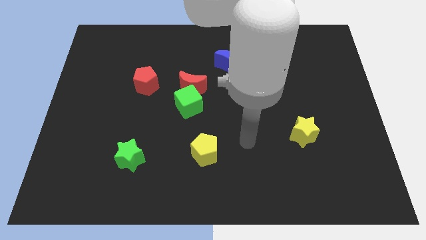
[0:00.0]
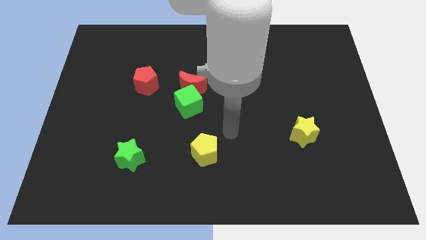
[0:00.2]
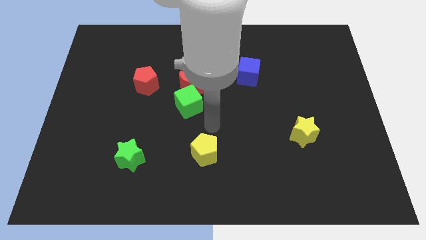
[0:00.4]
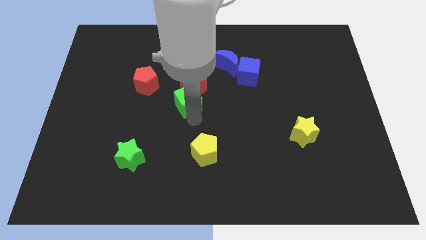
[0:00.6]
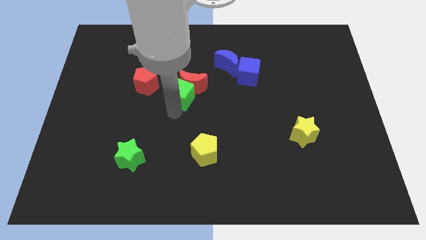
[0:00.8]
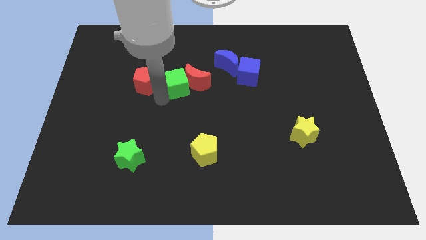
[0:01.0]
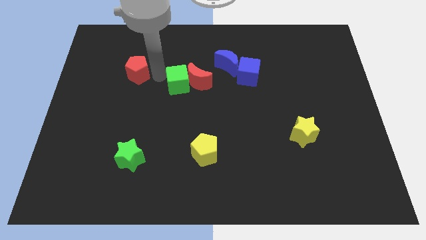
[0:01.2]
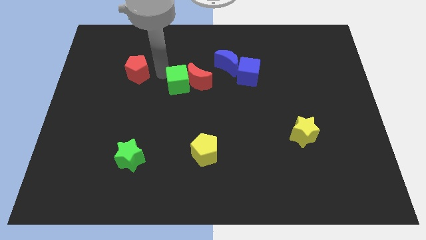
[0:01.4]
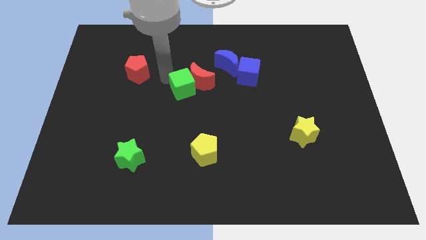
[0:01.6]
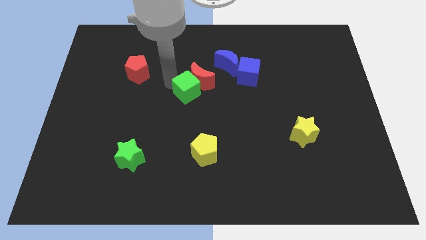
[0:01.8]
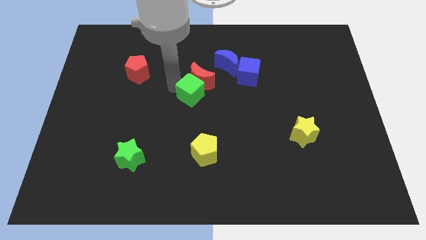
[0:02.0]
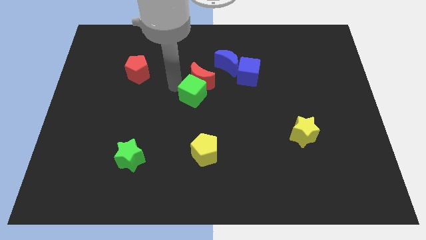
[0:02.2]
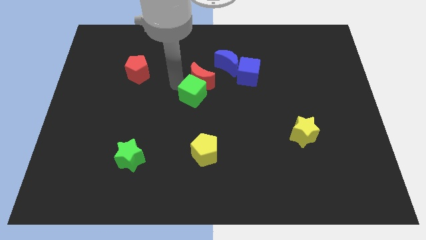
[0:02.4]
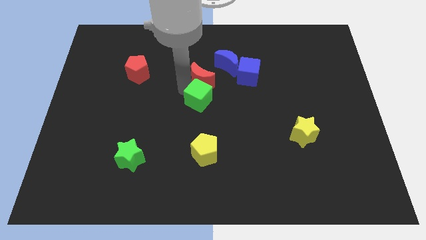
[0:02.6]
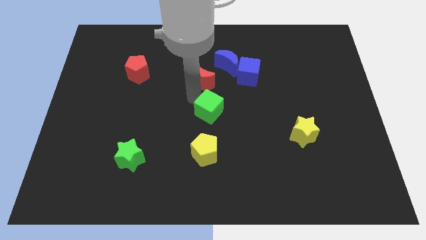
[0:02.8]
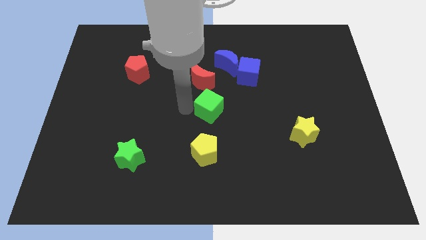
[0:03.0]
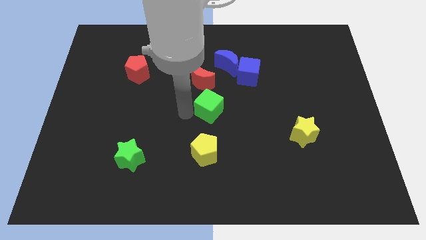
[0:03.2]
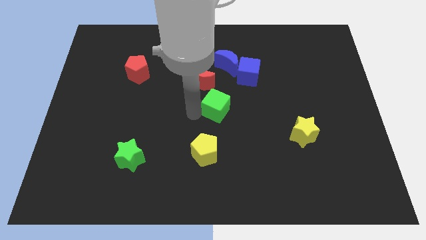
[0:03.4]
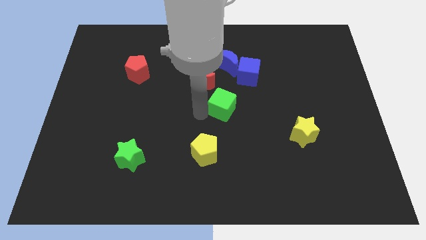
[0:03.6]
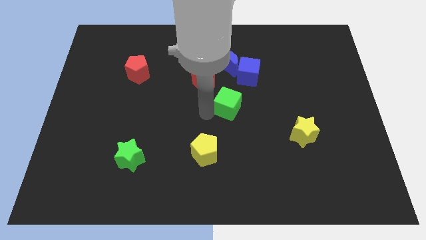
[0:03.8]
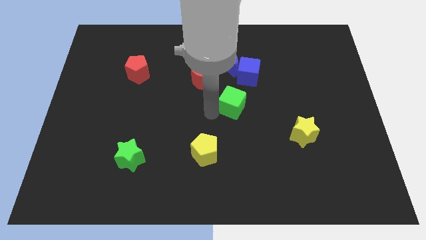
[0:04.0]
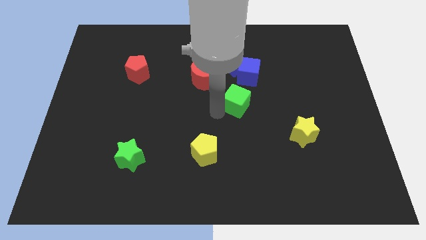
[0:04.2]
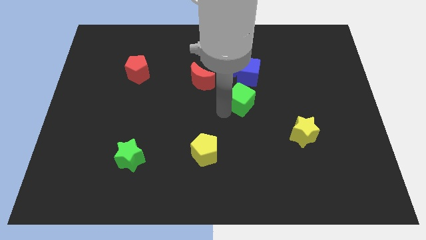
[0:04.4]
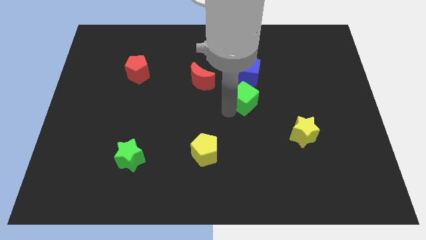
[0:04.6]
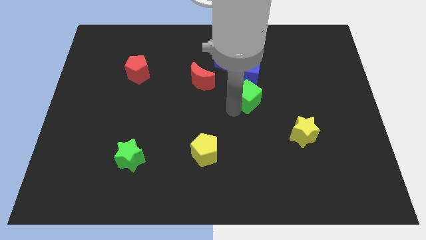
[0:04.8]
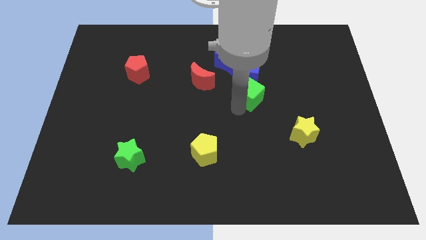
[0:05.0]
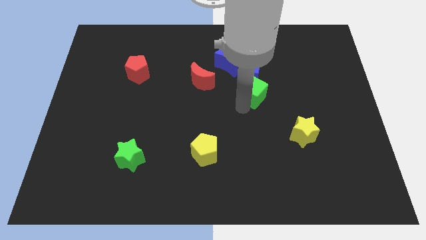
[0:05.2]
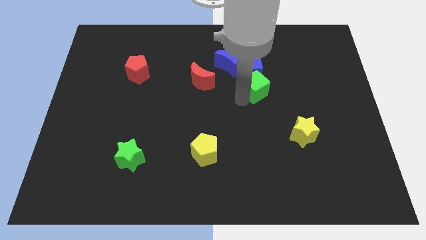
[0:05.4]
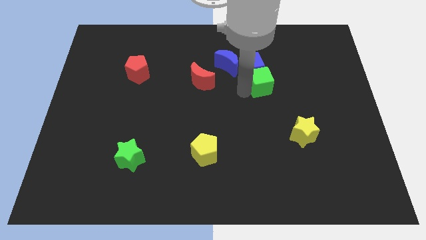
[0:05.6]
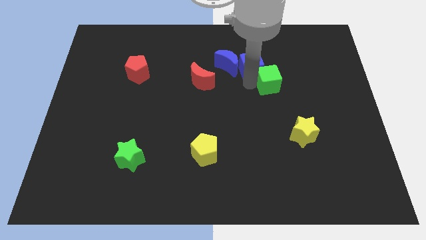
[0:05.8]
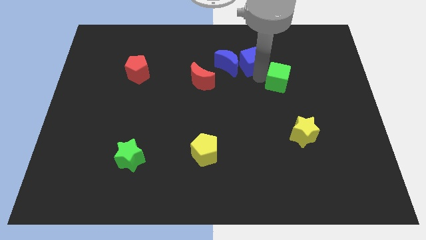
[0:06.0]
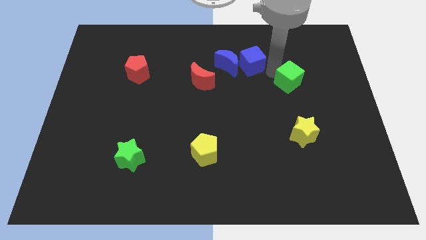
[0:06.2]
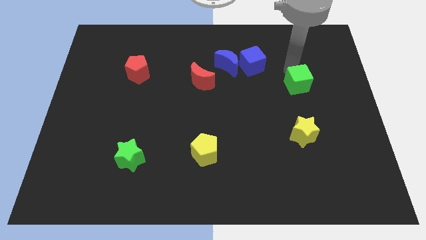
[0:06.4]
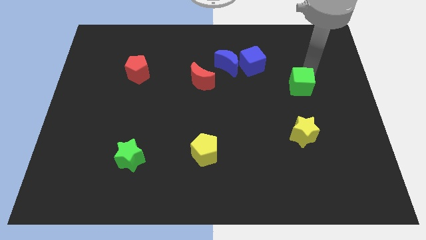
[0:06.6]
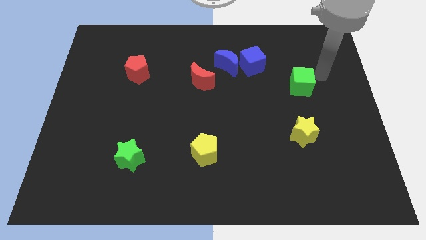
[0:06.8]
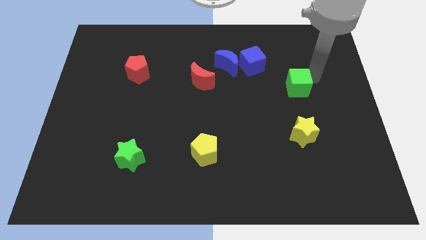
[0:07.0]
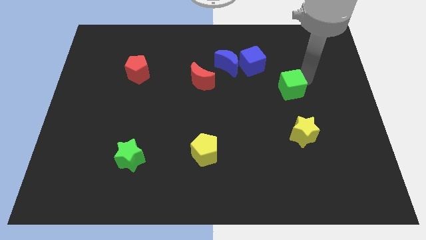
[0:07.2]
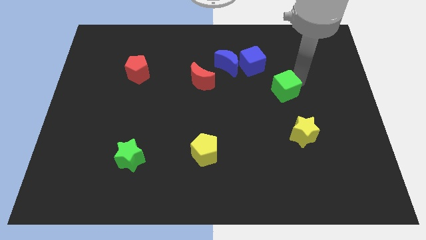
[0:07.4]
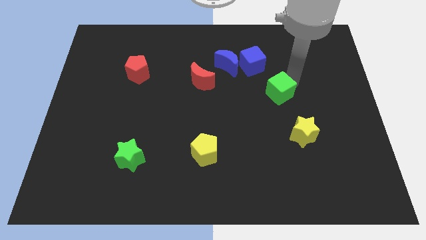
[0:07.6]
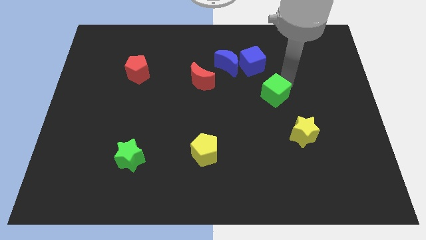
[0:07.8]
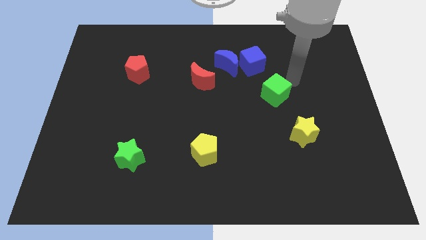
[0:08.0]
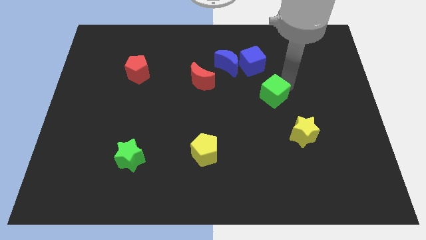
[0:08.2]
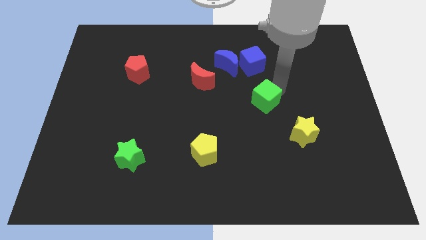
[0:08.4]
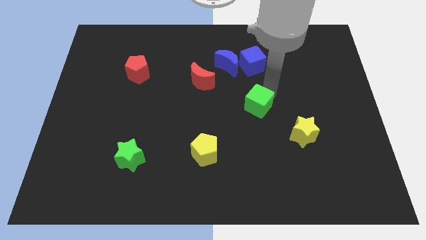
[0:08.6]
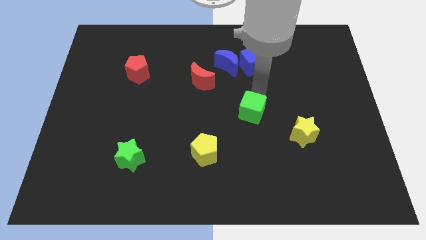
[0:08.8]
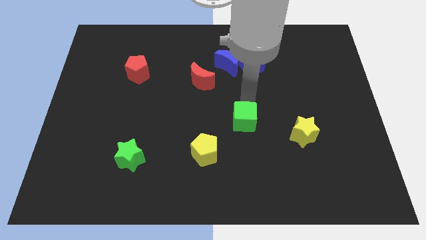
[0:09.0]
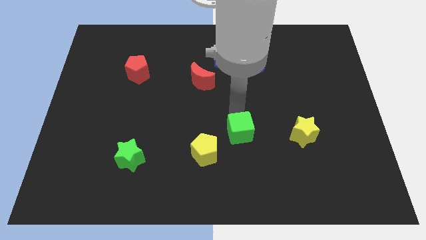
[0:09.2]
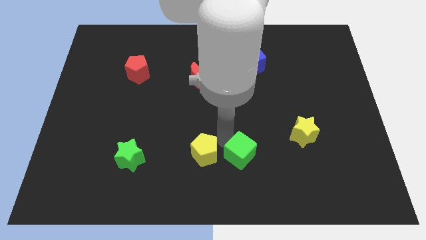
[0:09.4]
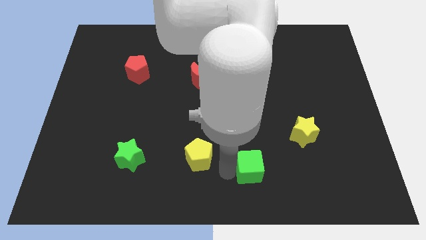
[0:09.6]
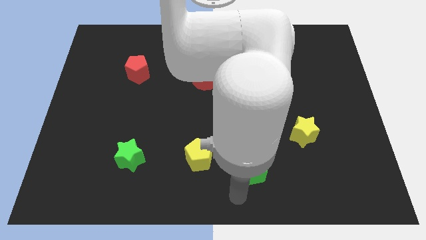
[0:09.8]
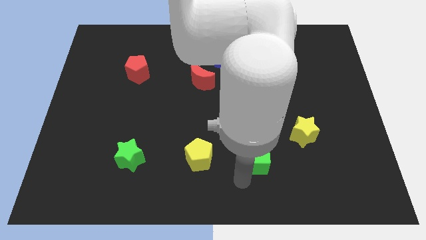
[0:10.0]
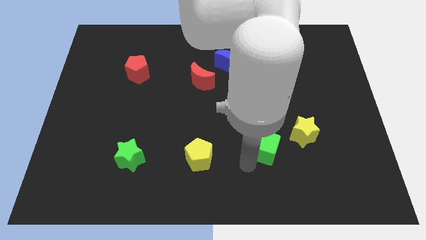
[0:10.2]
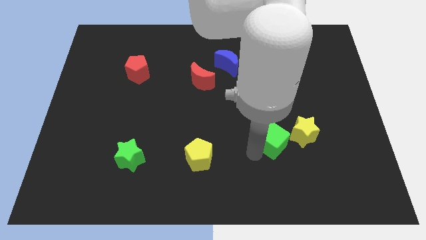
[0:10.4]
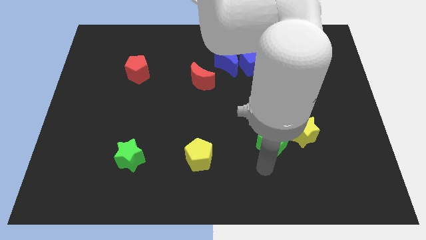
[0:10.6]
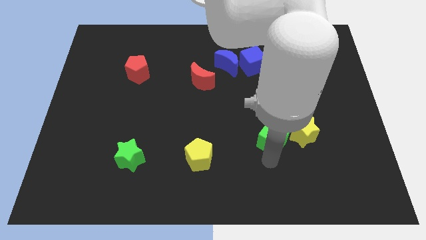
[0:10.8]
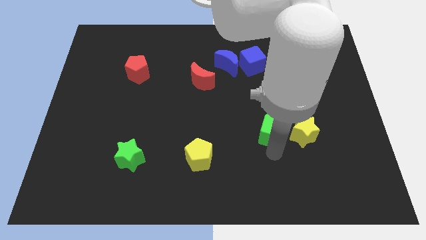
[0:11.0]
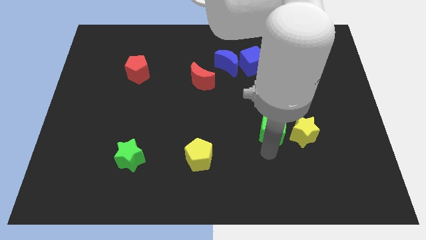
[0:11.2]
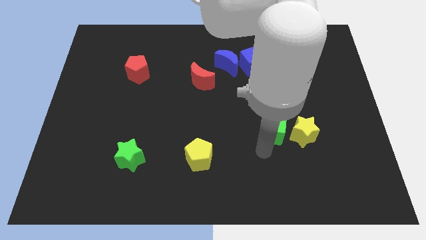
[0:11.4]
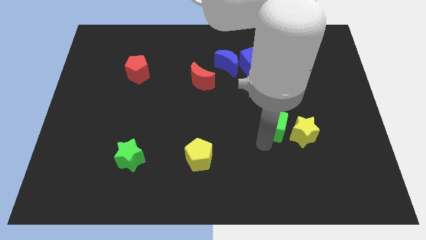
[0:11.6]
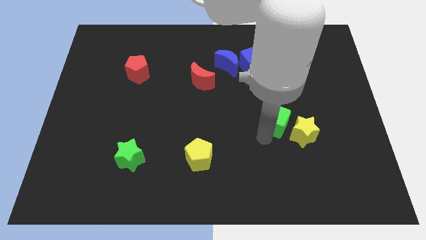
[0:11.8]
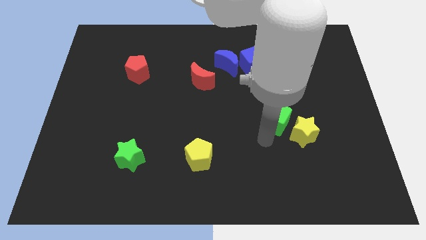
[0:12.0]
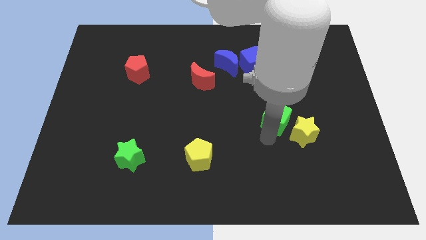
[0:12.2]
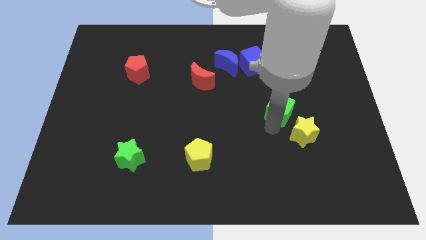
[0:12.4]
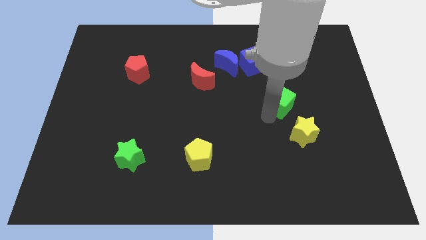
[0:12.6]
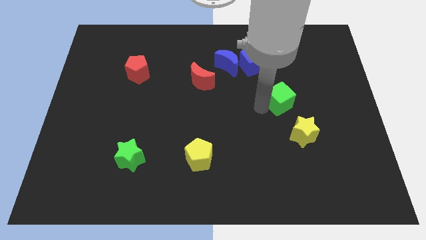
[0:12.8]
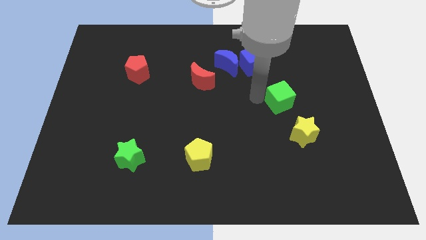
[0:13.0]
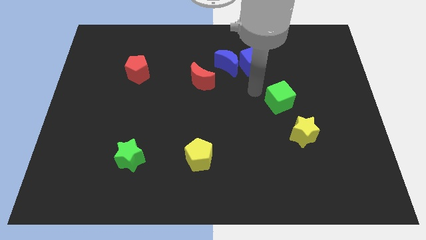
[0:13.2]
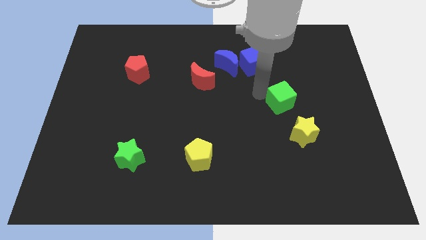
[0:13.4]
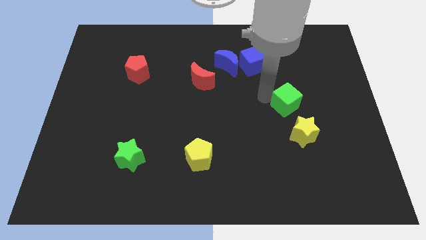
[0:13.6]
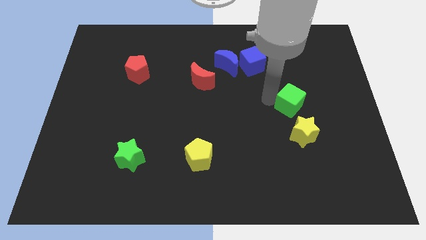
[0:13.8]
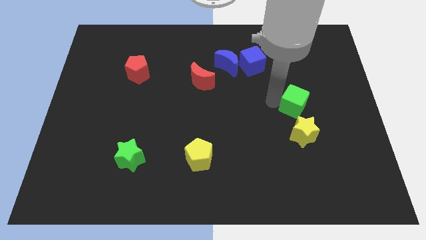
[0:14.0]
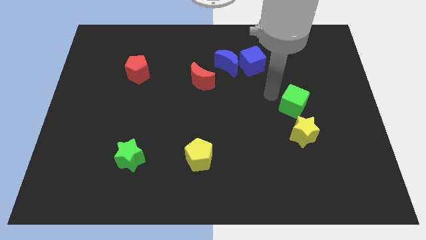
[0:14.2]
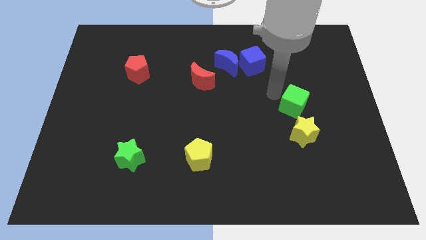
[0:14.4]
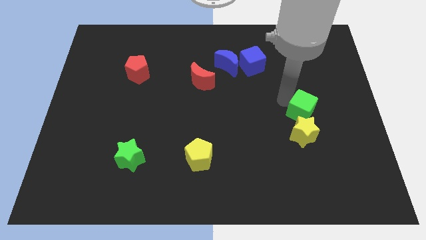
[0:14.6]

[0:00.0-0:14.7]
put the green cube diagonally up and to the right of the yellow star
